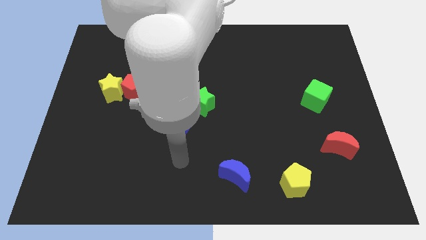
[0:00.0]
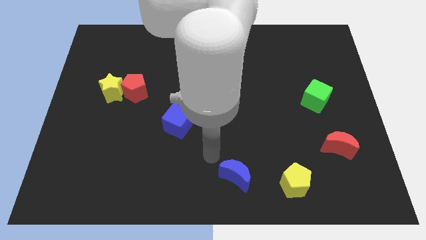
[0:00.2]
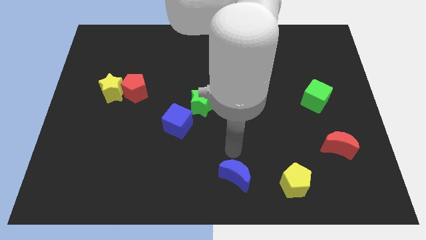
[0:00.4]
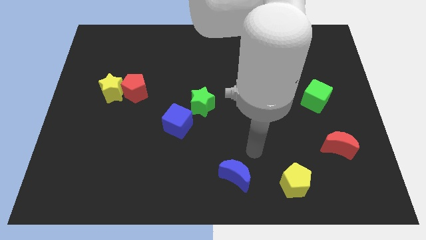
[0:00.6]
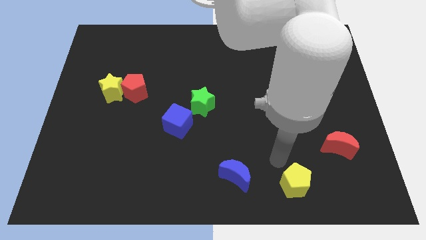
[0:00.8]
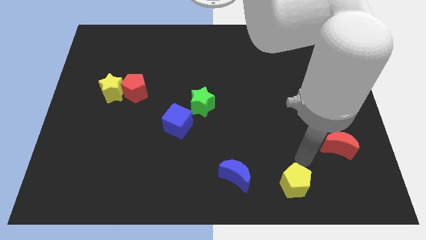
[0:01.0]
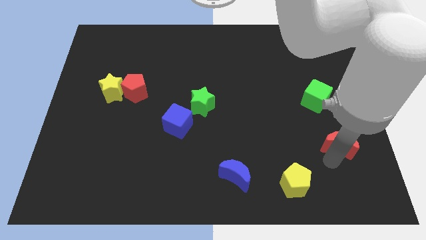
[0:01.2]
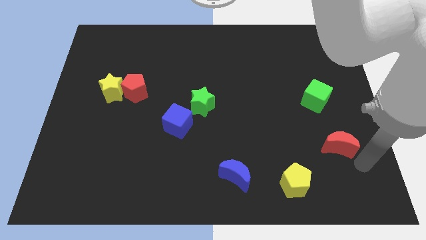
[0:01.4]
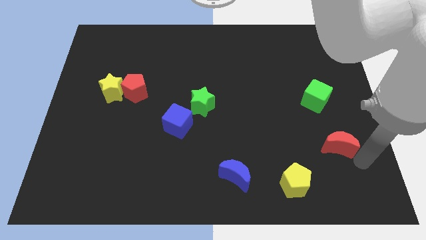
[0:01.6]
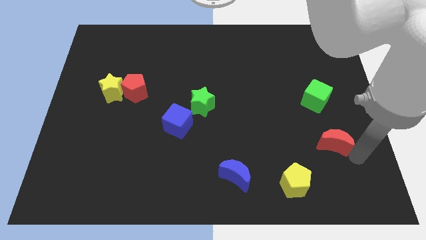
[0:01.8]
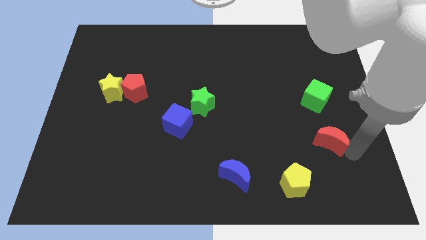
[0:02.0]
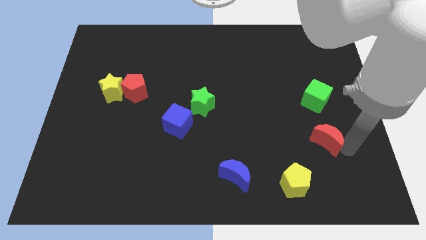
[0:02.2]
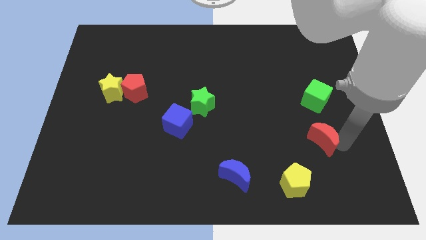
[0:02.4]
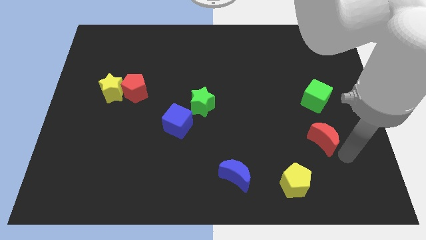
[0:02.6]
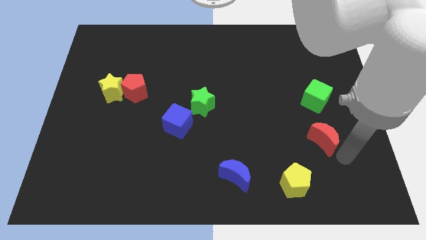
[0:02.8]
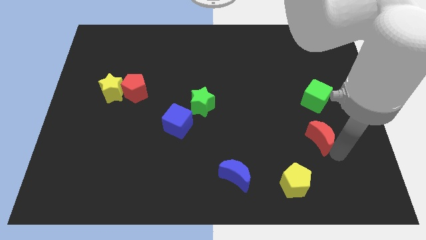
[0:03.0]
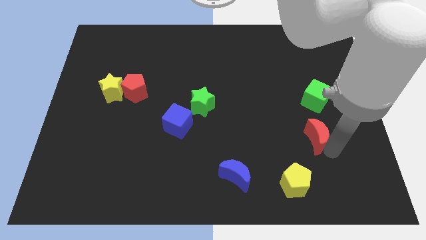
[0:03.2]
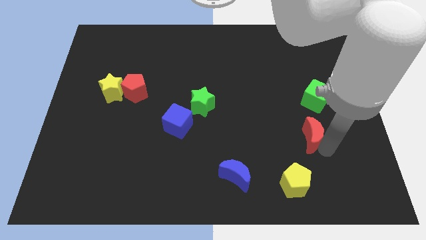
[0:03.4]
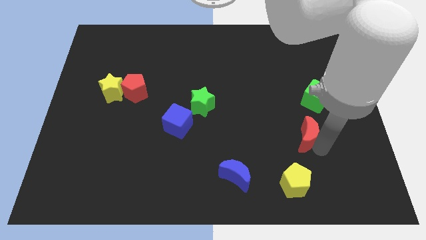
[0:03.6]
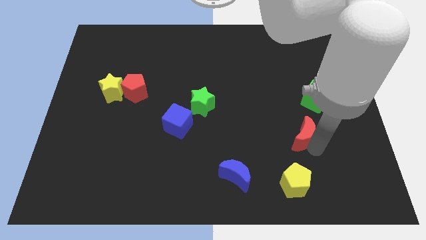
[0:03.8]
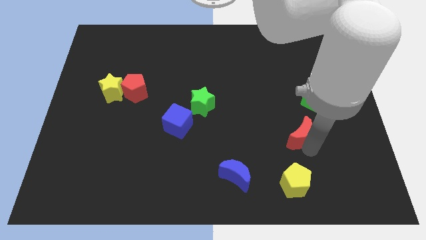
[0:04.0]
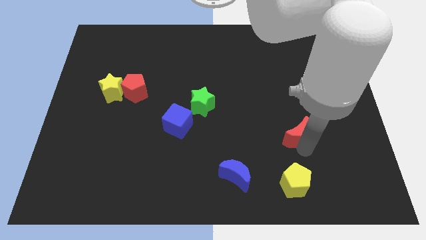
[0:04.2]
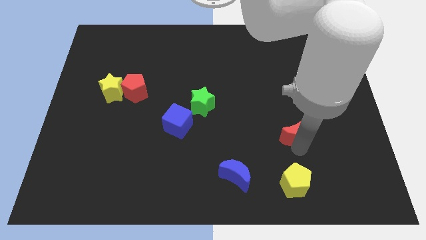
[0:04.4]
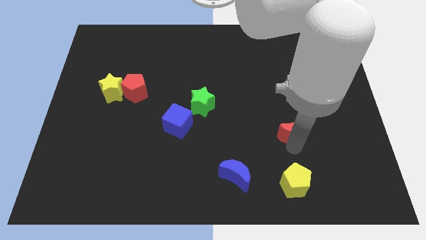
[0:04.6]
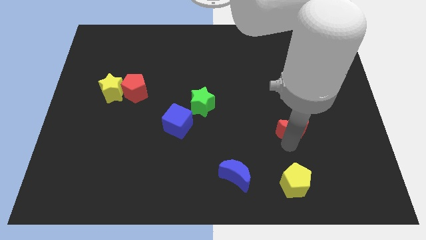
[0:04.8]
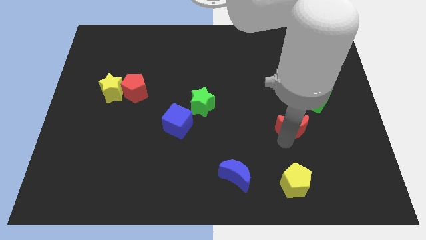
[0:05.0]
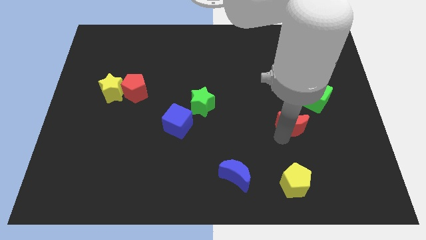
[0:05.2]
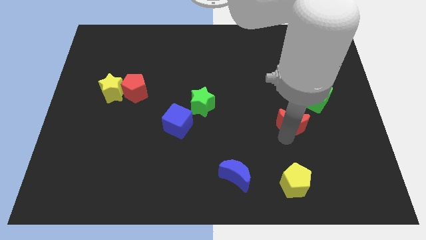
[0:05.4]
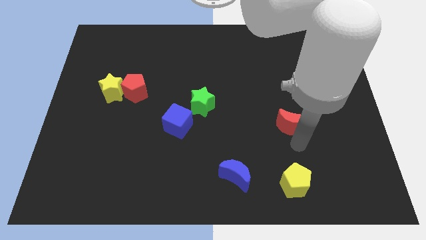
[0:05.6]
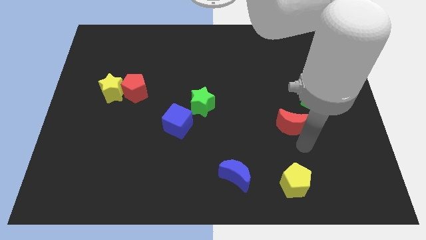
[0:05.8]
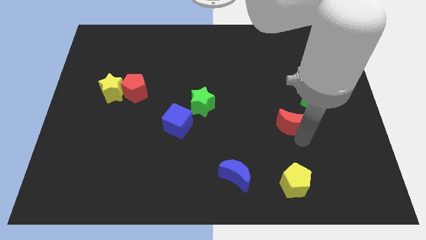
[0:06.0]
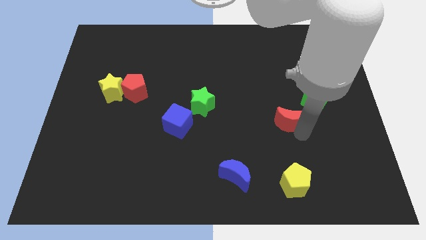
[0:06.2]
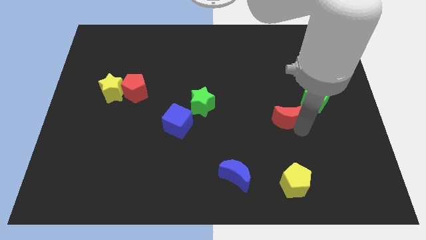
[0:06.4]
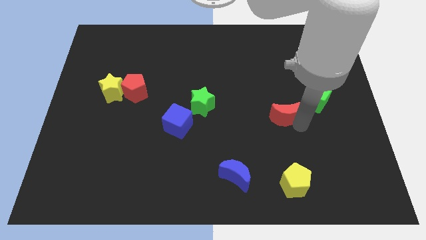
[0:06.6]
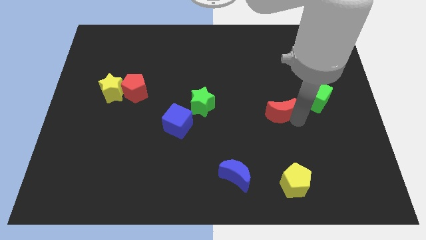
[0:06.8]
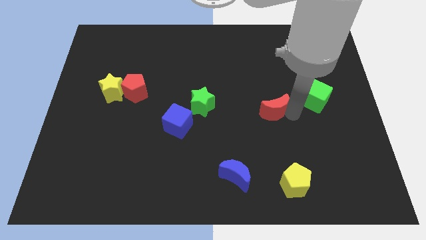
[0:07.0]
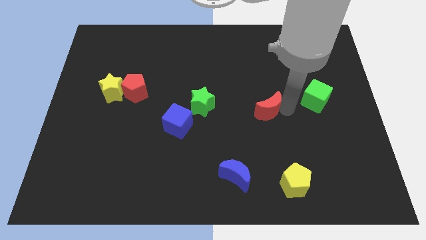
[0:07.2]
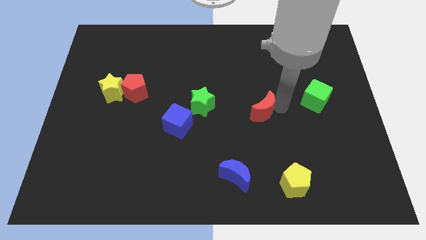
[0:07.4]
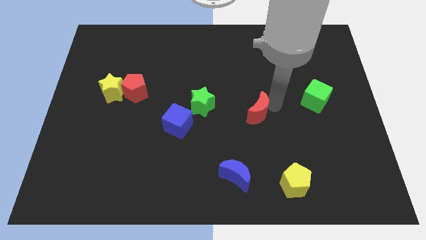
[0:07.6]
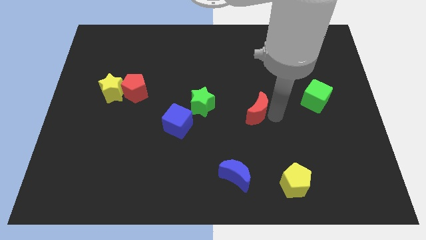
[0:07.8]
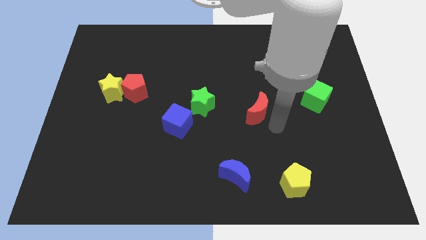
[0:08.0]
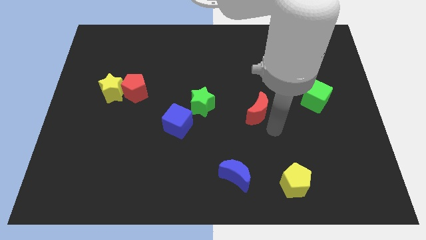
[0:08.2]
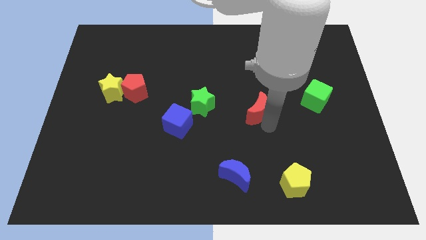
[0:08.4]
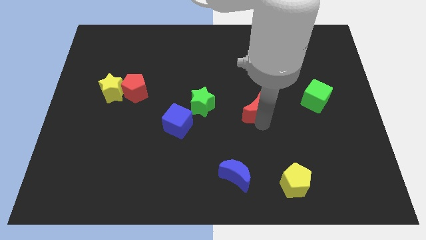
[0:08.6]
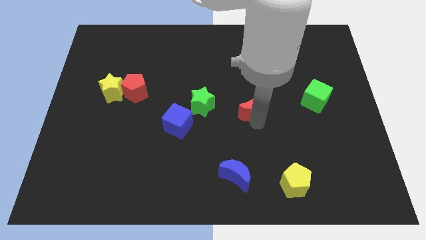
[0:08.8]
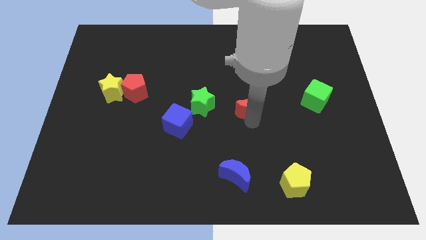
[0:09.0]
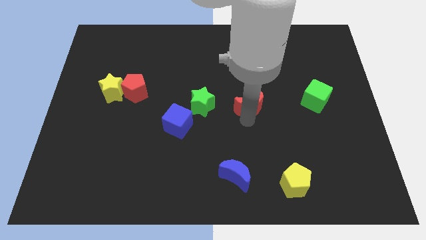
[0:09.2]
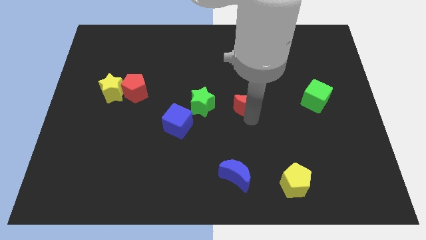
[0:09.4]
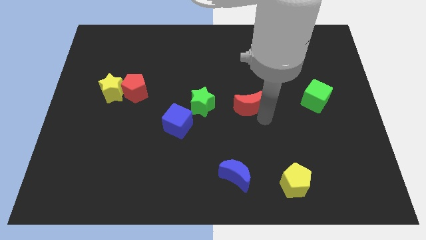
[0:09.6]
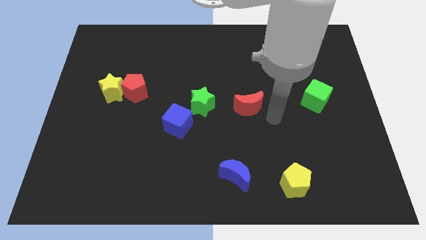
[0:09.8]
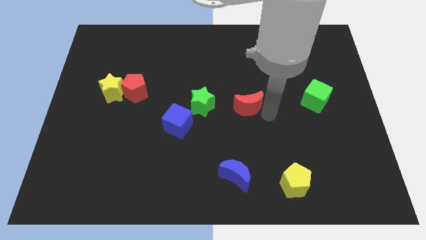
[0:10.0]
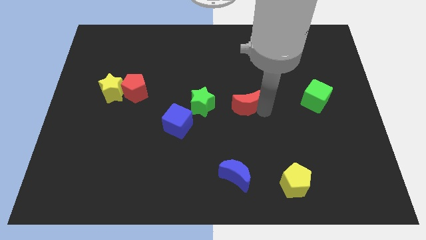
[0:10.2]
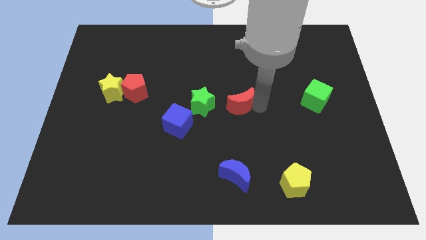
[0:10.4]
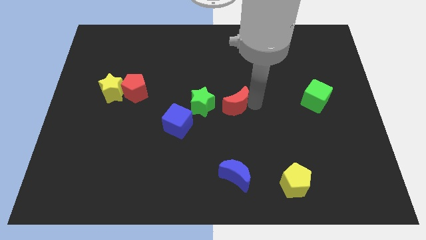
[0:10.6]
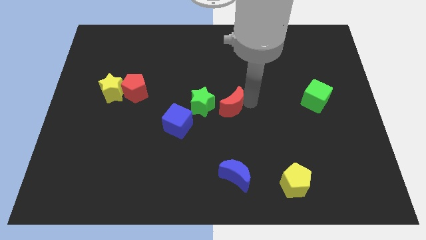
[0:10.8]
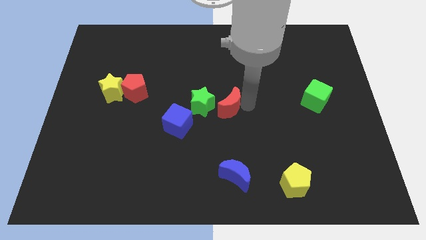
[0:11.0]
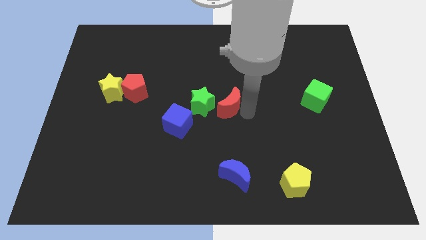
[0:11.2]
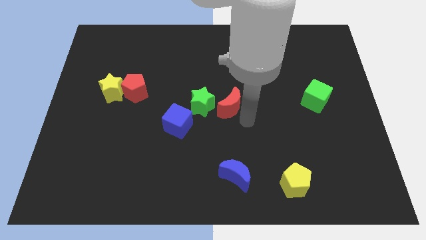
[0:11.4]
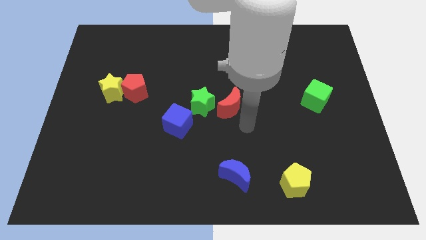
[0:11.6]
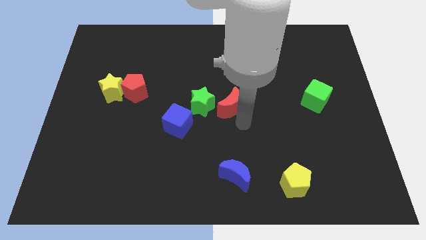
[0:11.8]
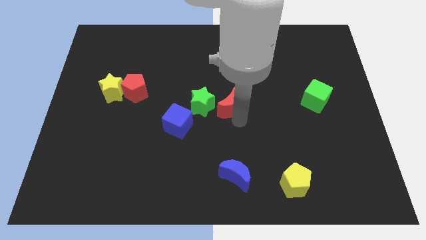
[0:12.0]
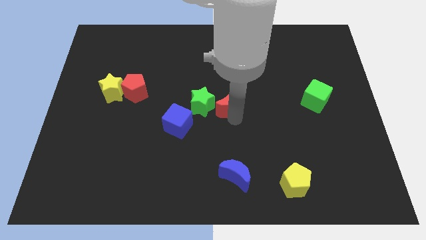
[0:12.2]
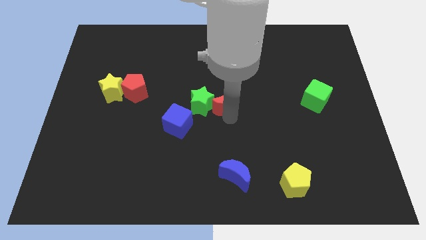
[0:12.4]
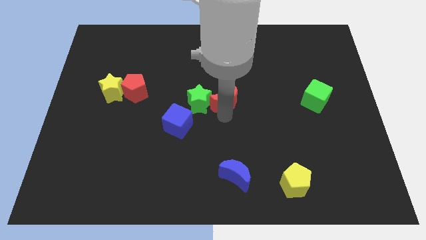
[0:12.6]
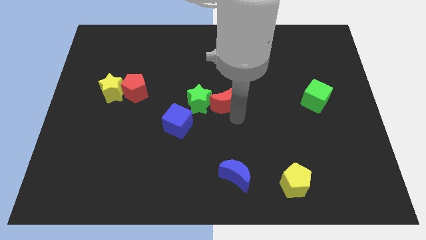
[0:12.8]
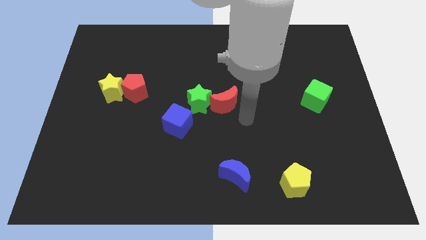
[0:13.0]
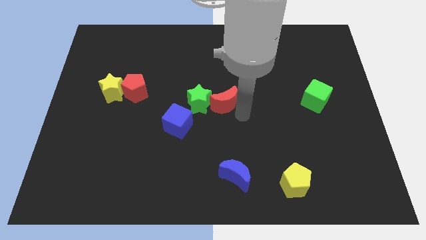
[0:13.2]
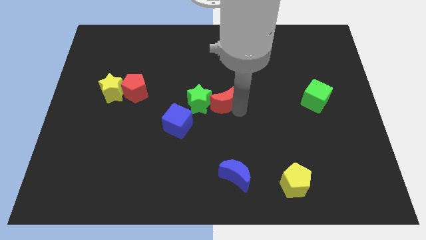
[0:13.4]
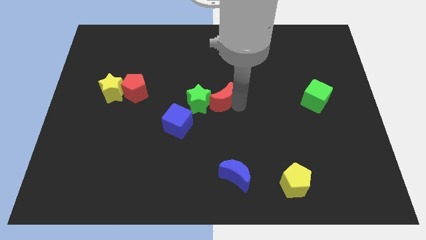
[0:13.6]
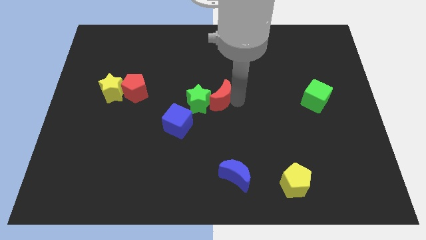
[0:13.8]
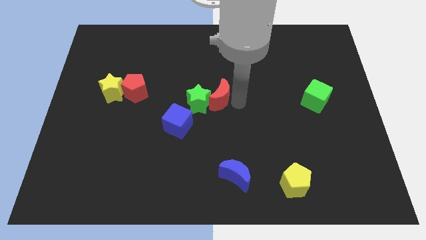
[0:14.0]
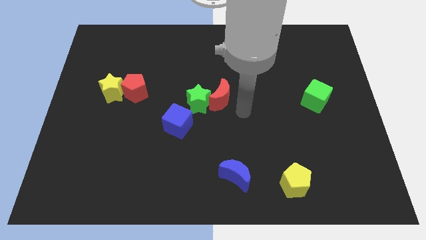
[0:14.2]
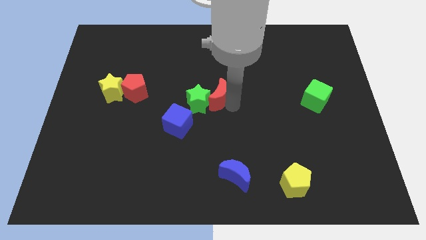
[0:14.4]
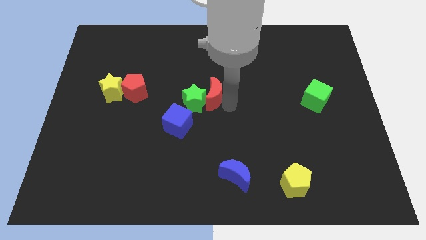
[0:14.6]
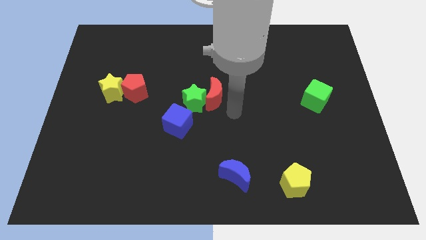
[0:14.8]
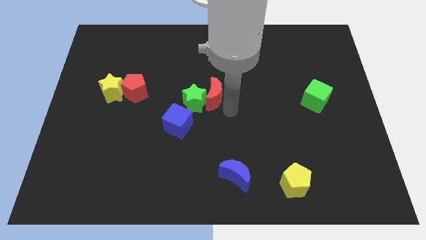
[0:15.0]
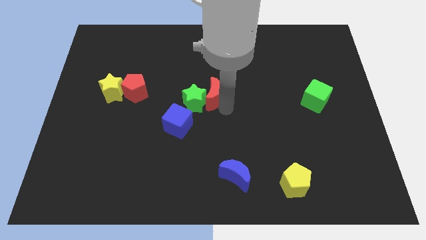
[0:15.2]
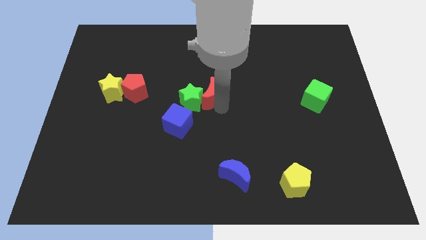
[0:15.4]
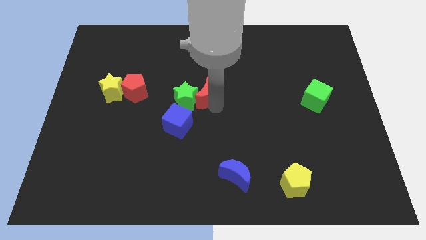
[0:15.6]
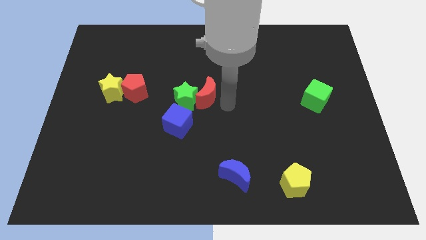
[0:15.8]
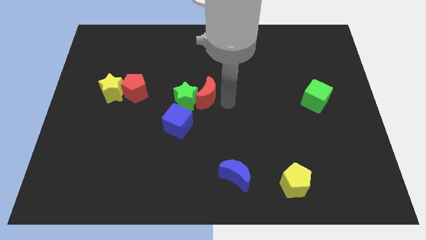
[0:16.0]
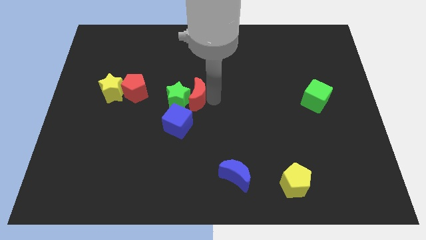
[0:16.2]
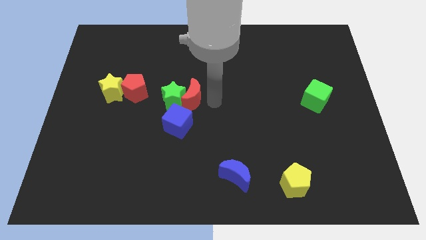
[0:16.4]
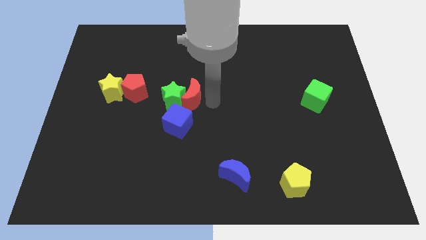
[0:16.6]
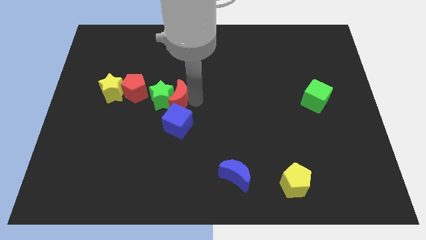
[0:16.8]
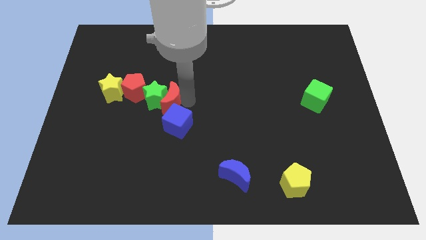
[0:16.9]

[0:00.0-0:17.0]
push the red moon right of the yellow star
